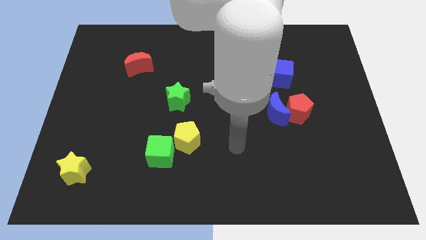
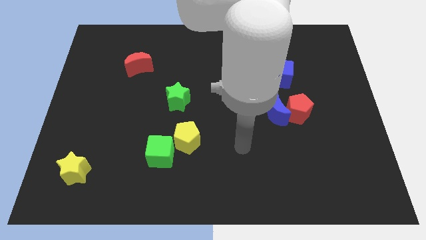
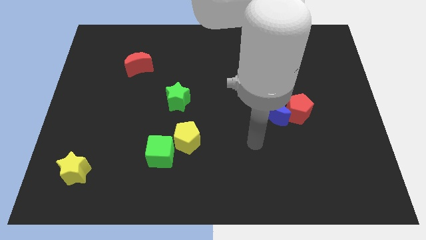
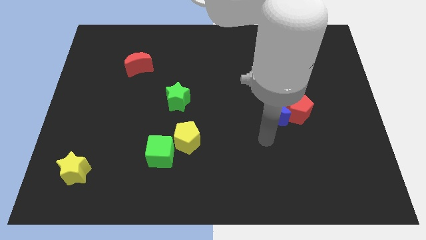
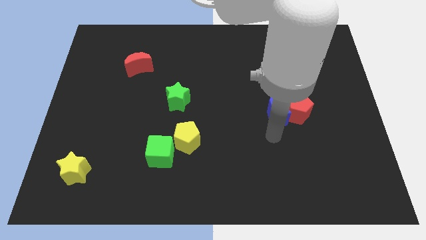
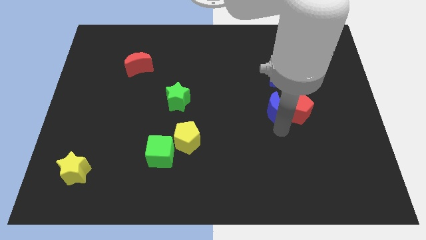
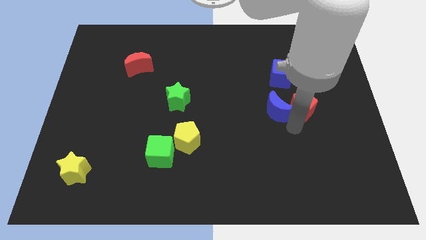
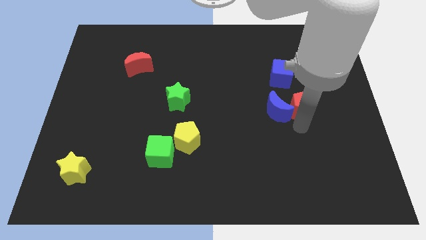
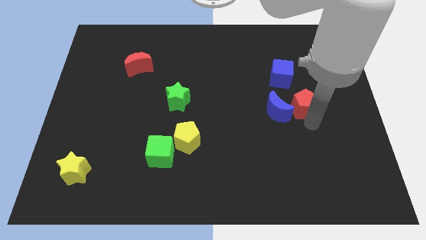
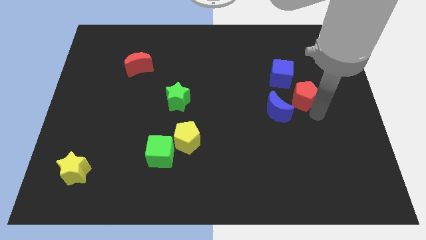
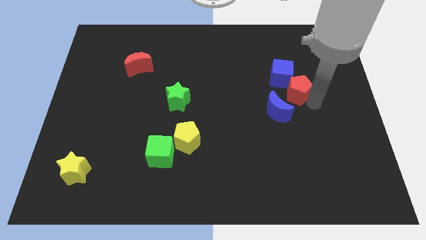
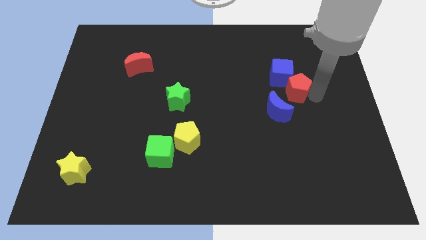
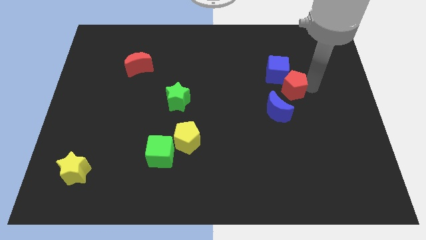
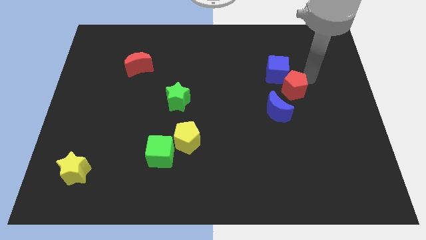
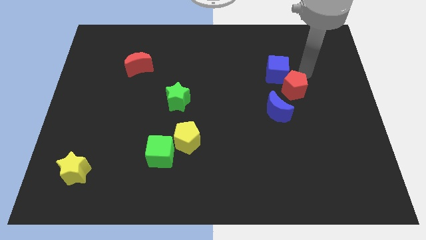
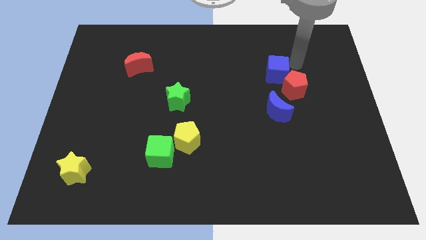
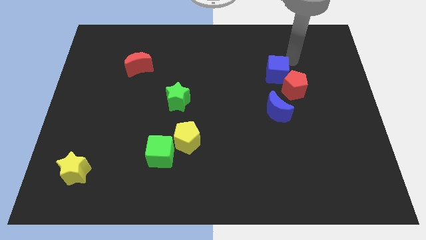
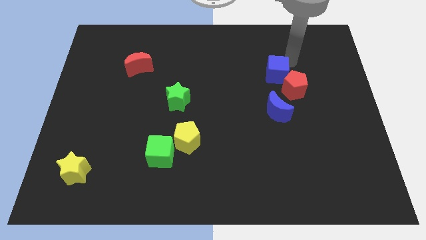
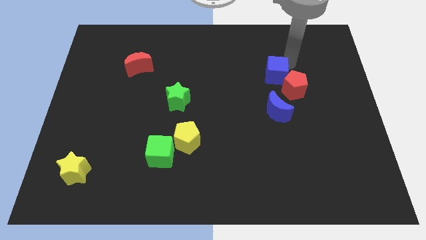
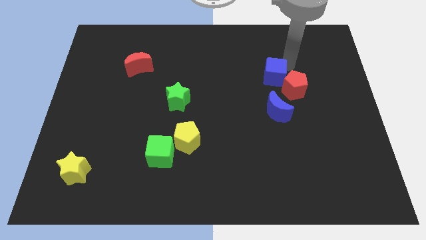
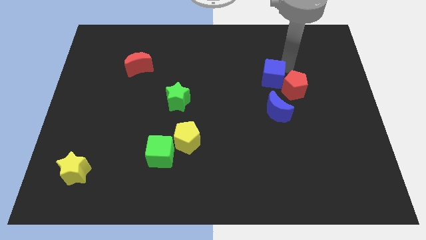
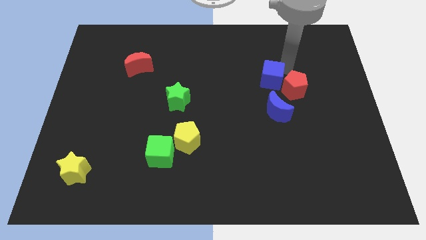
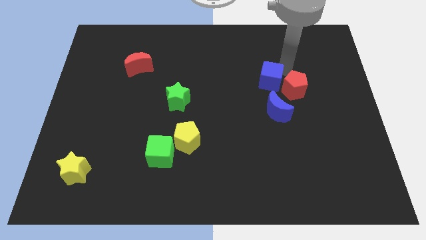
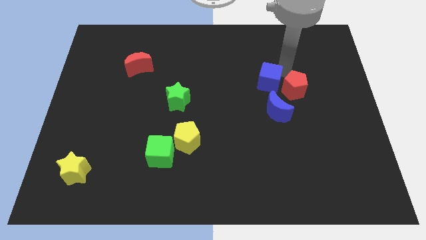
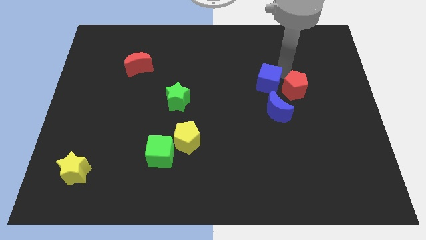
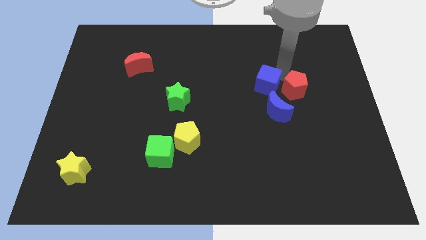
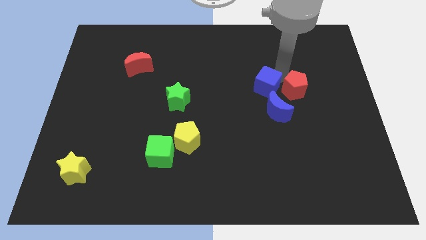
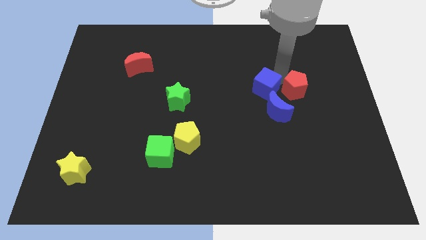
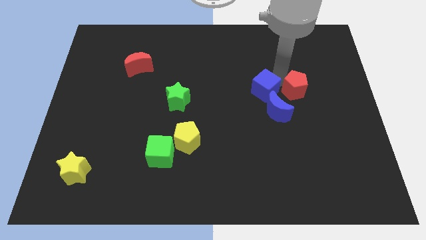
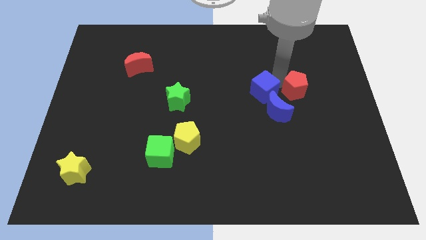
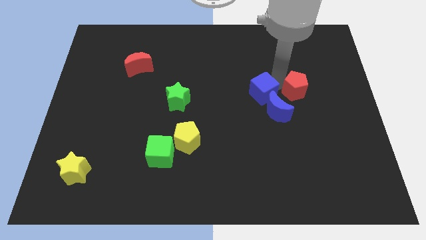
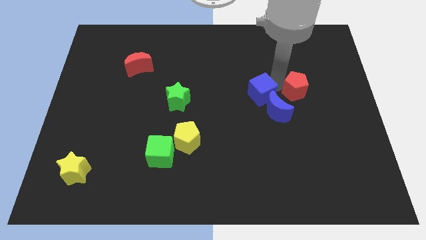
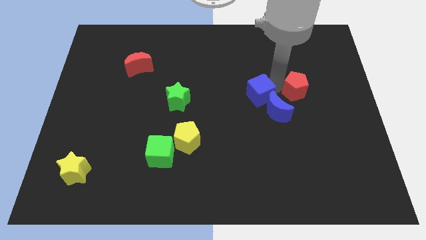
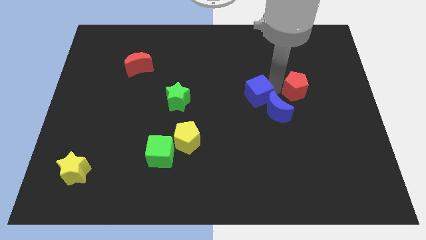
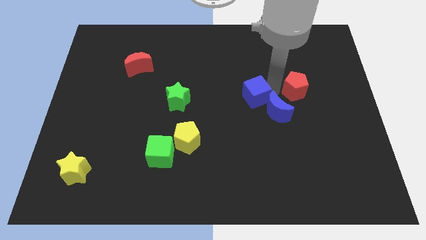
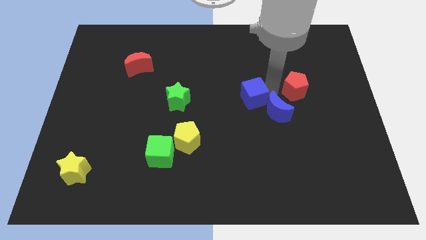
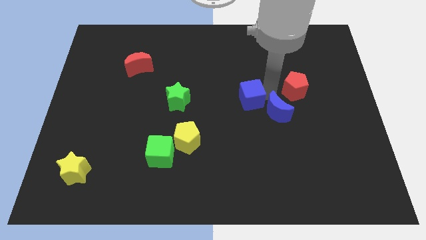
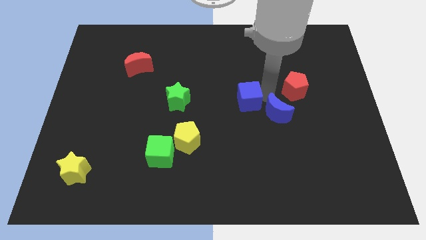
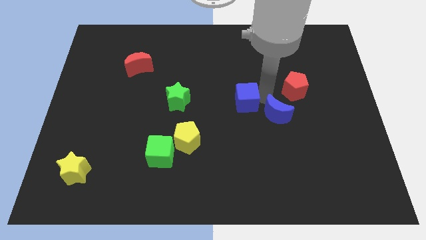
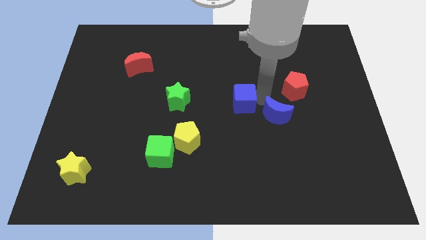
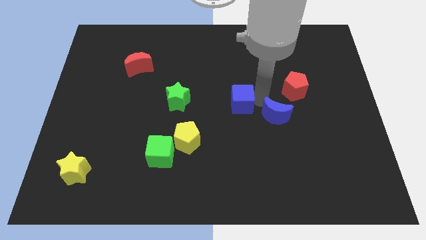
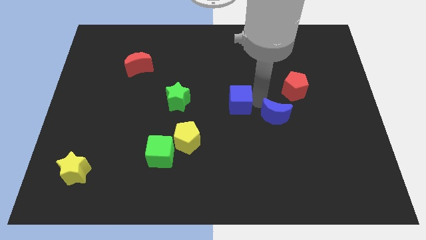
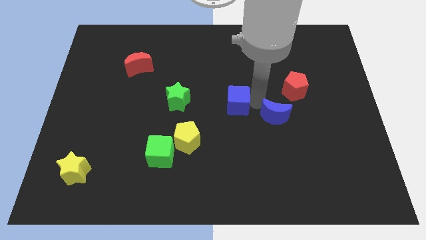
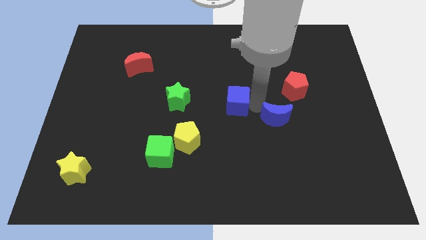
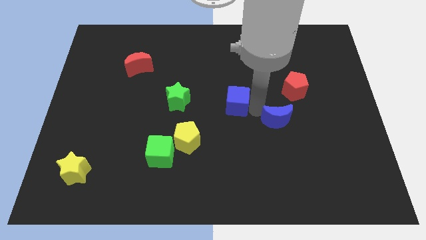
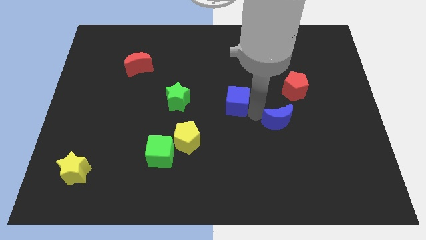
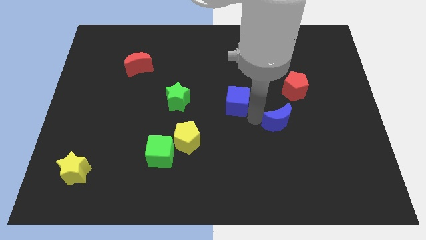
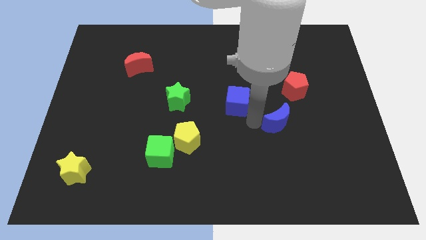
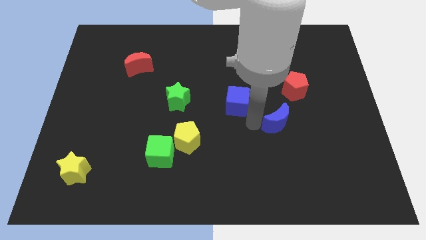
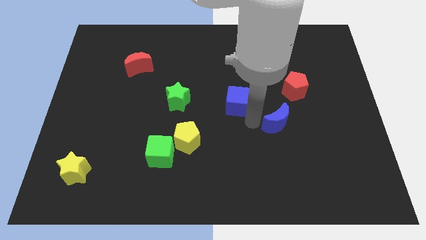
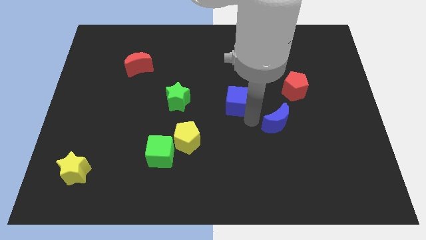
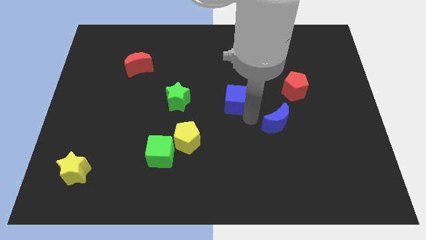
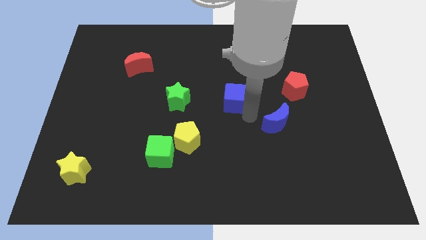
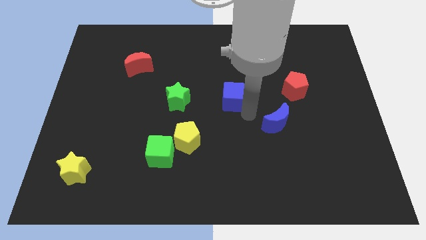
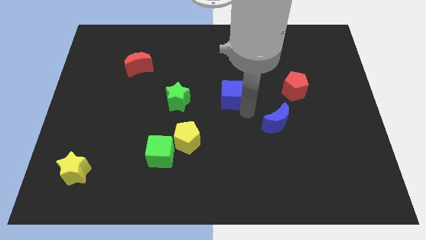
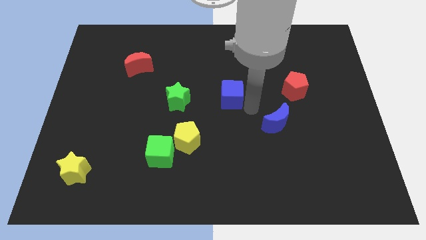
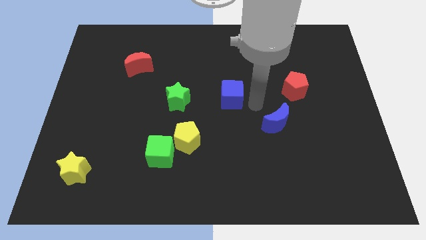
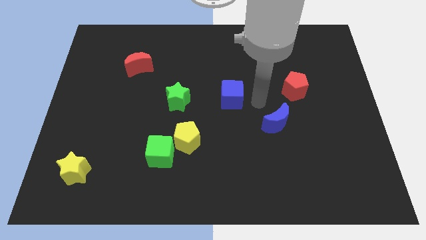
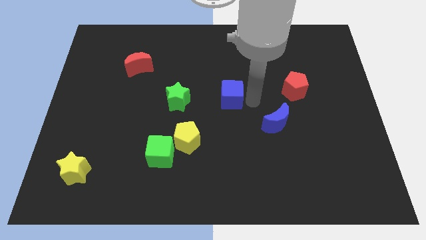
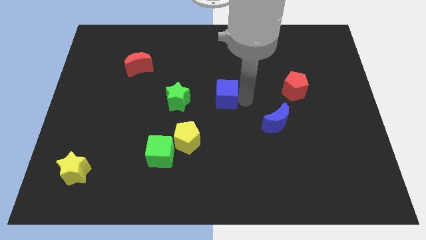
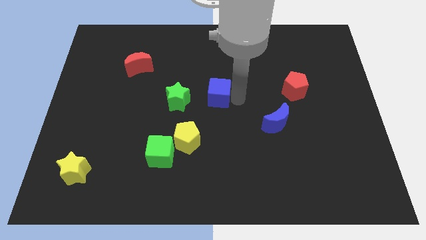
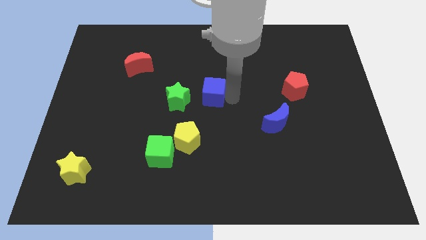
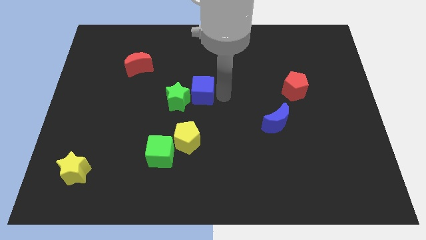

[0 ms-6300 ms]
slide the blue cube close to the green star

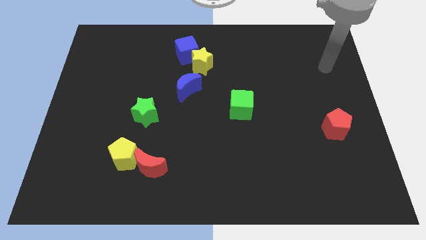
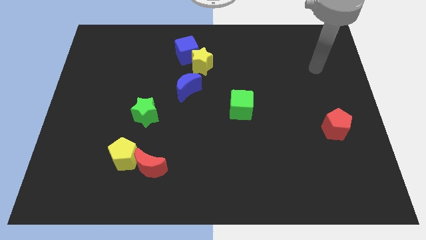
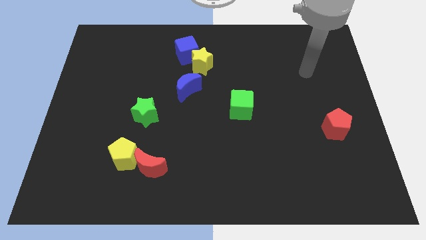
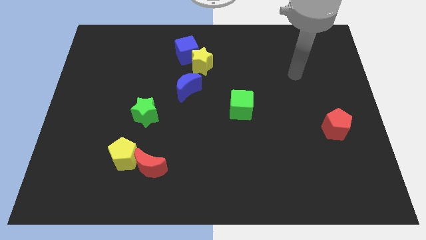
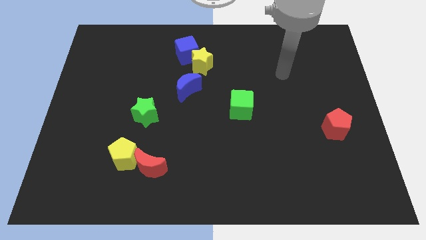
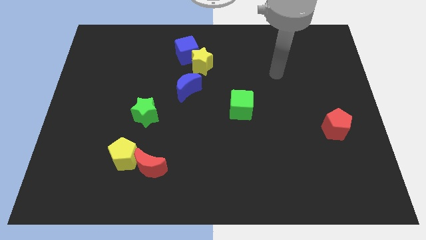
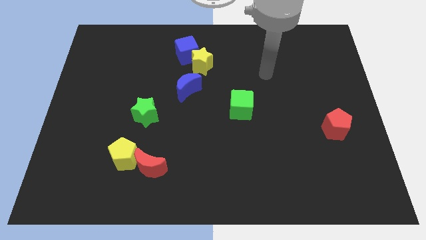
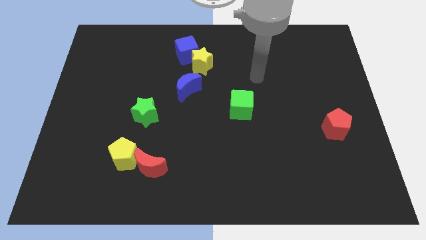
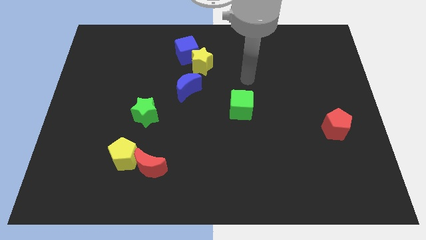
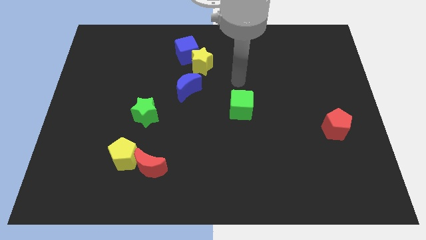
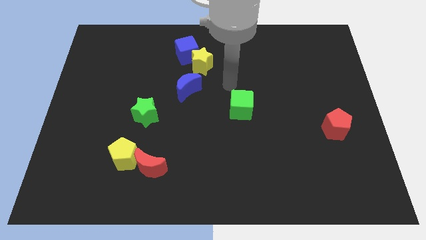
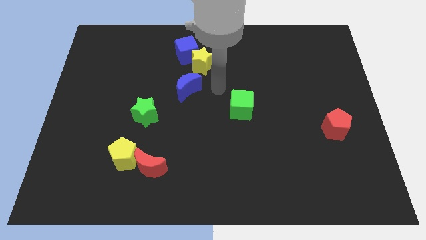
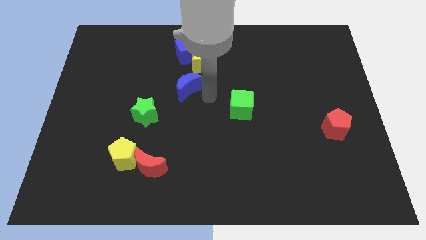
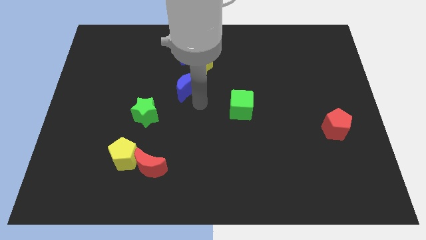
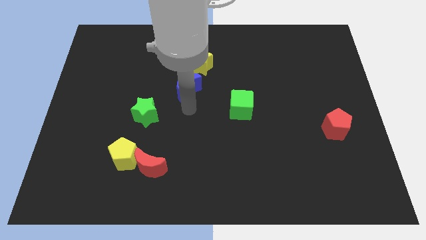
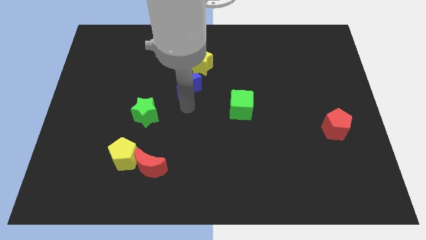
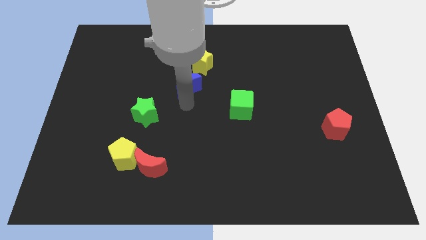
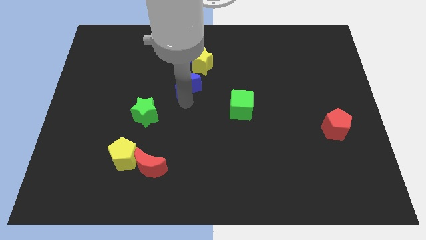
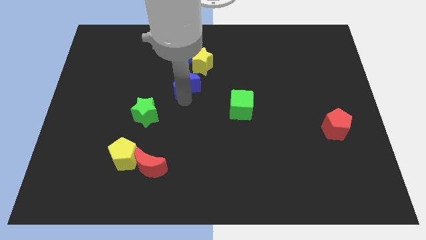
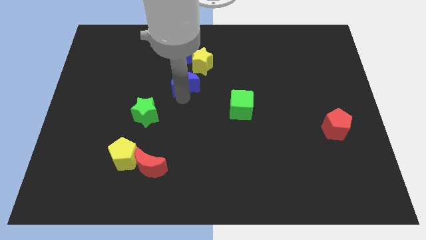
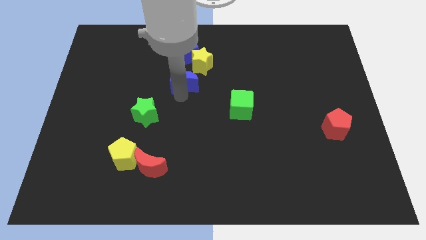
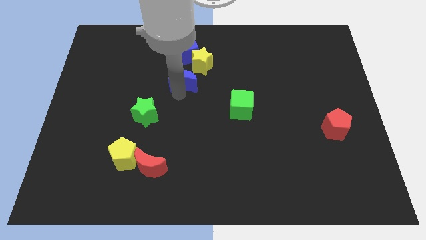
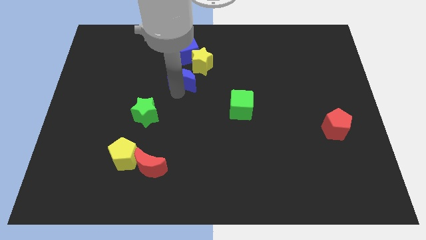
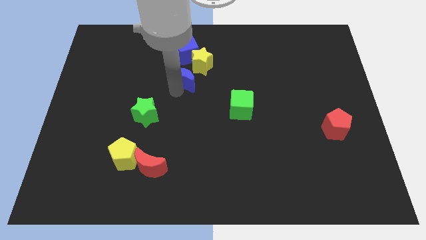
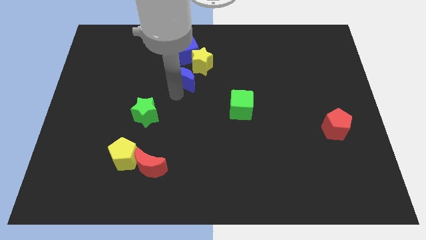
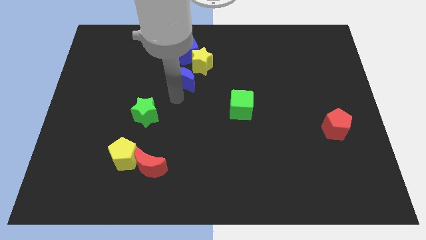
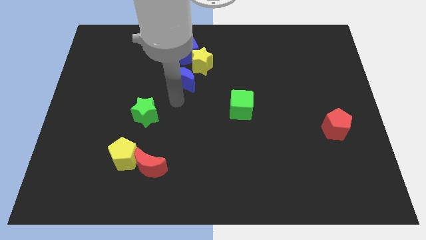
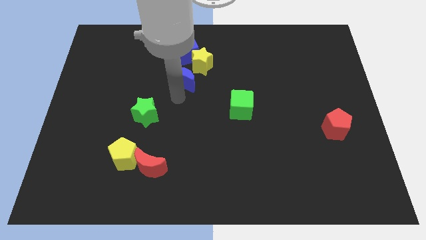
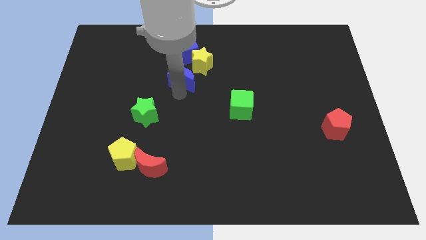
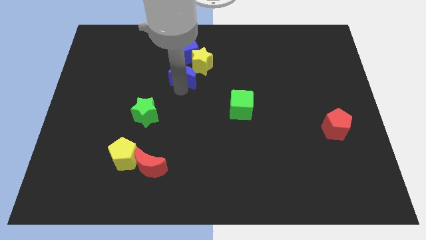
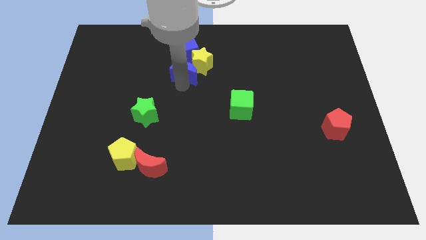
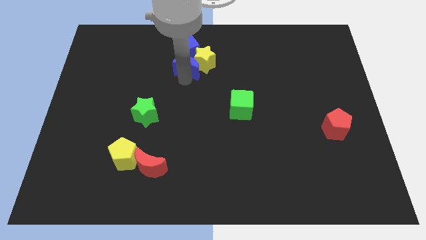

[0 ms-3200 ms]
slide the blue moon towards the blue cube
